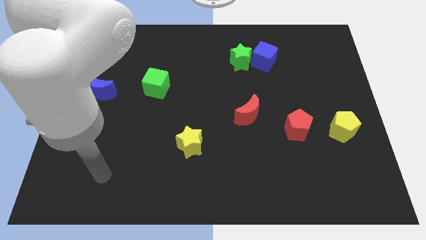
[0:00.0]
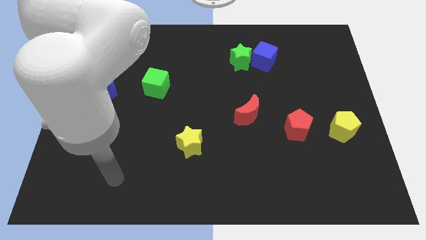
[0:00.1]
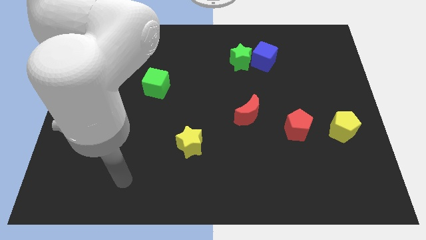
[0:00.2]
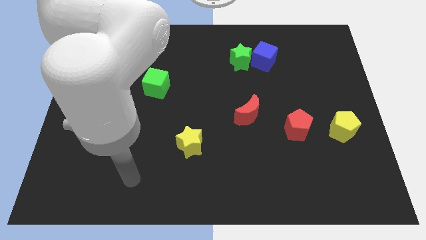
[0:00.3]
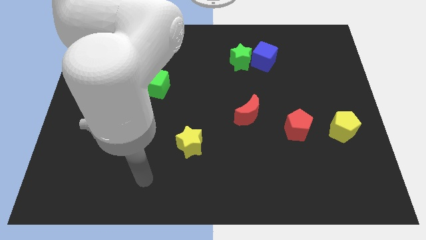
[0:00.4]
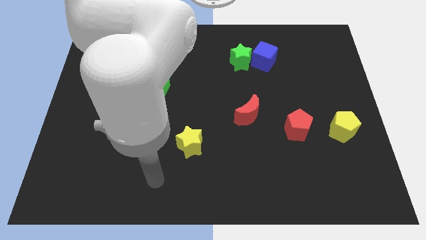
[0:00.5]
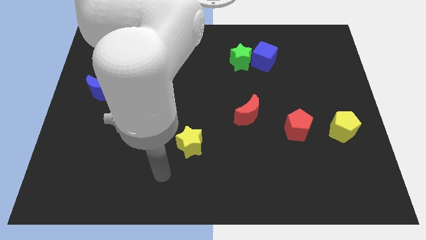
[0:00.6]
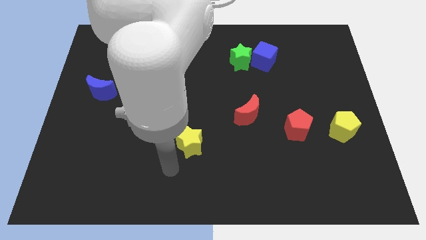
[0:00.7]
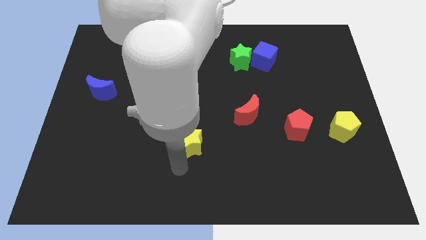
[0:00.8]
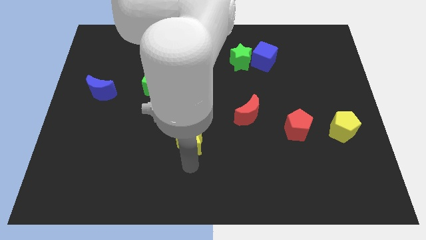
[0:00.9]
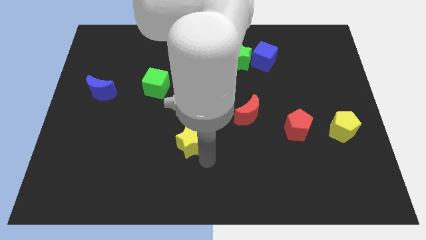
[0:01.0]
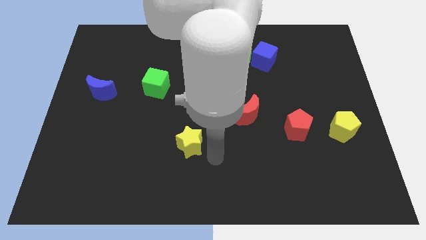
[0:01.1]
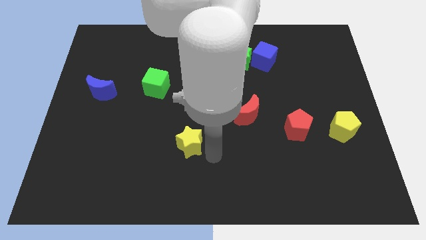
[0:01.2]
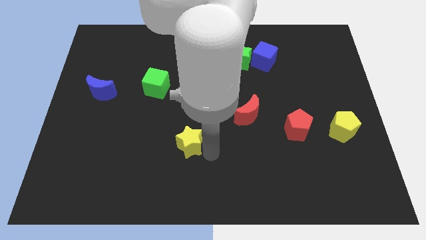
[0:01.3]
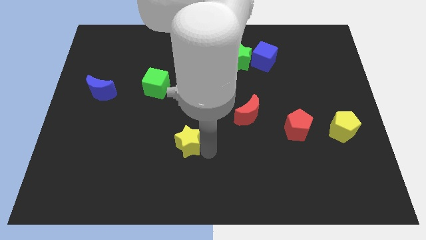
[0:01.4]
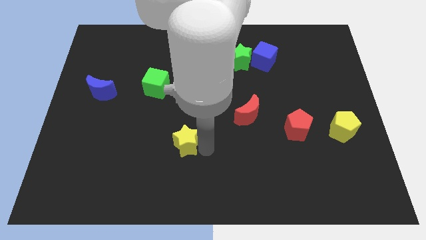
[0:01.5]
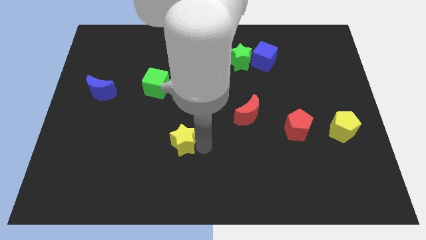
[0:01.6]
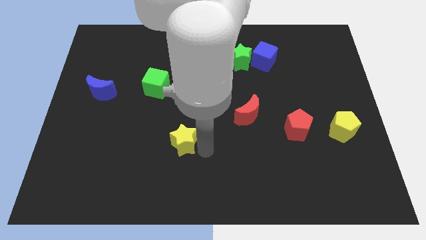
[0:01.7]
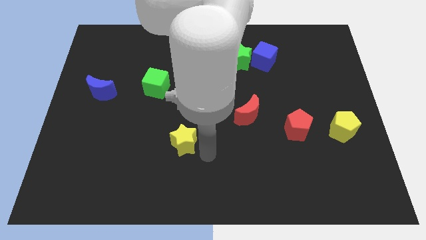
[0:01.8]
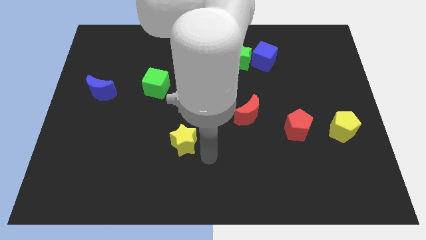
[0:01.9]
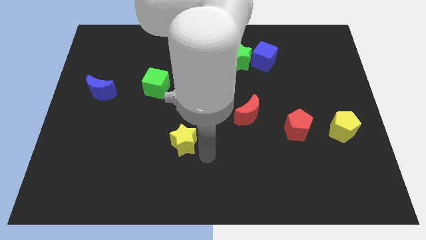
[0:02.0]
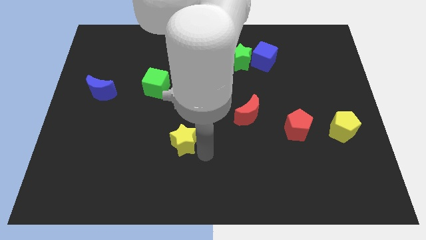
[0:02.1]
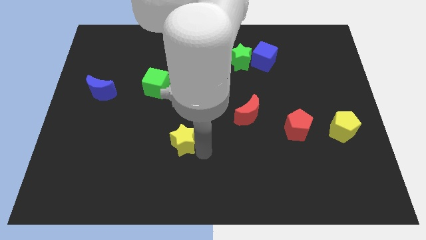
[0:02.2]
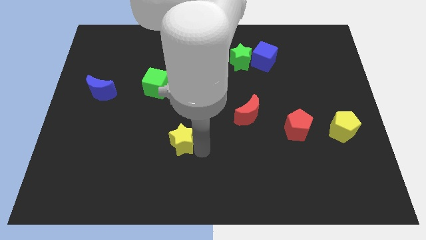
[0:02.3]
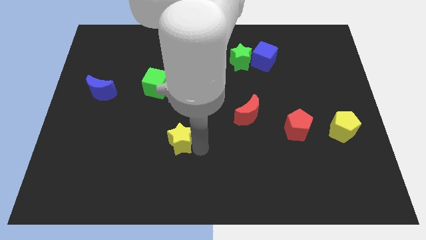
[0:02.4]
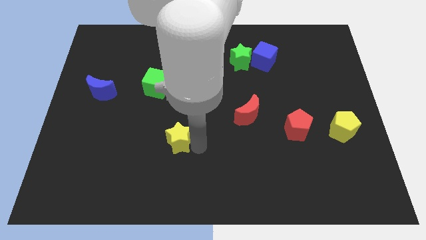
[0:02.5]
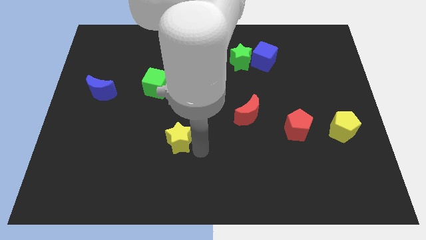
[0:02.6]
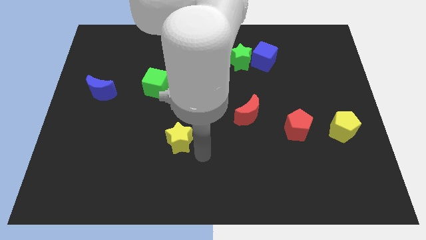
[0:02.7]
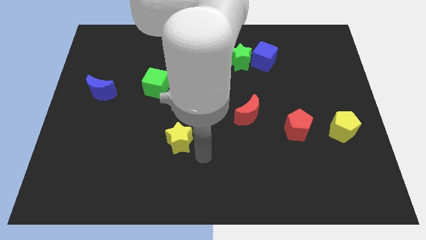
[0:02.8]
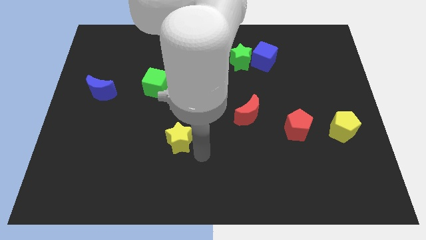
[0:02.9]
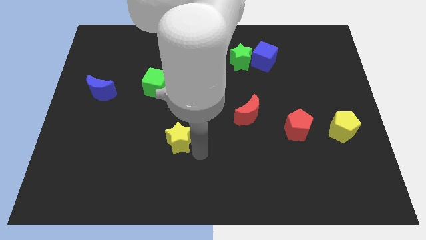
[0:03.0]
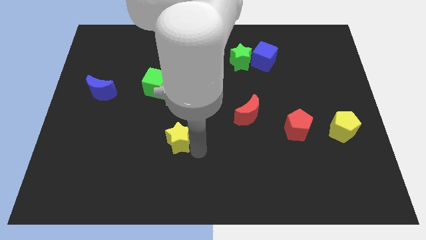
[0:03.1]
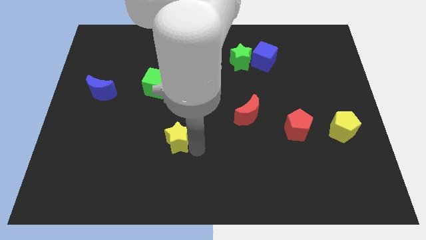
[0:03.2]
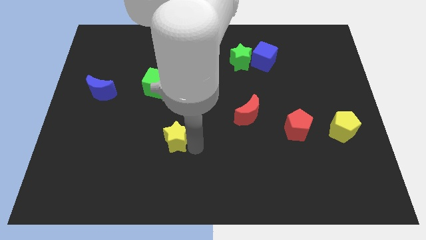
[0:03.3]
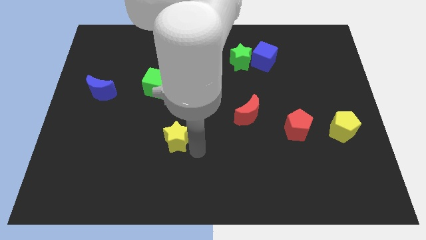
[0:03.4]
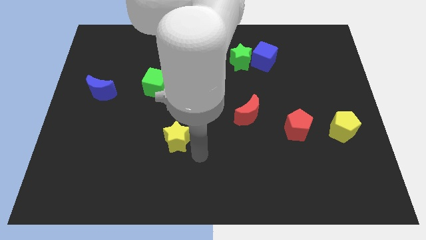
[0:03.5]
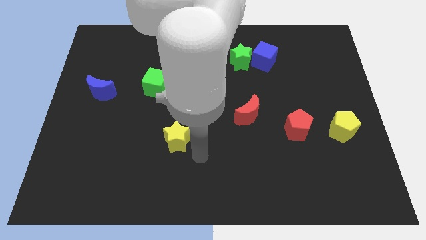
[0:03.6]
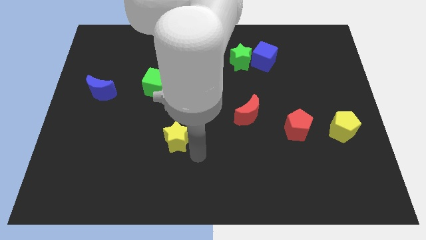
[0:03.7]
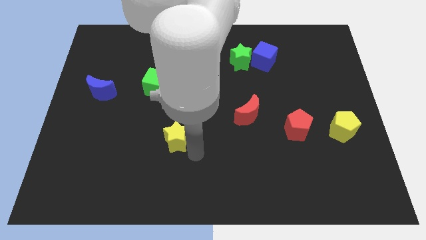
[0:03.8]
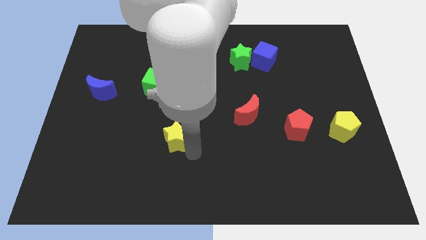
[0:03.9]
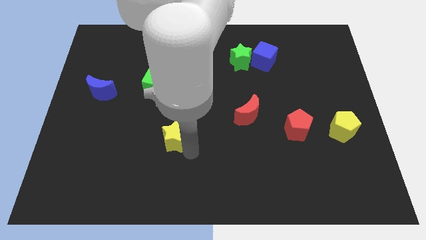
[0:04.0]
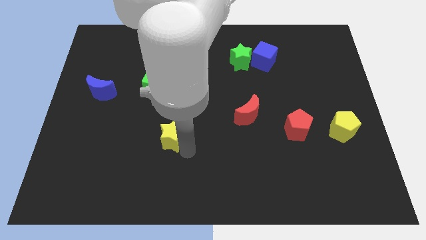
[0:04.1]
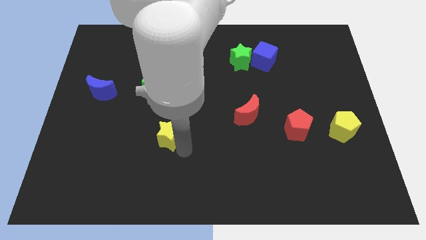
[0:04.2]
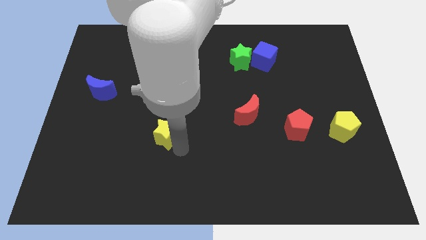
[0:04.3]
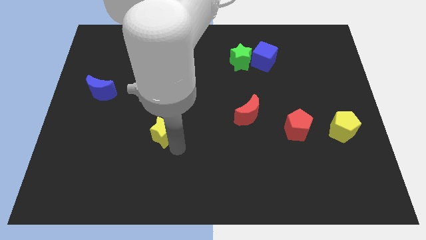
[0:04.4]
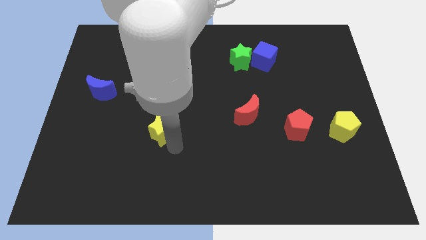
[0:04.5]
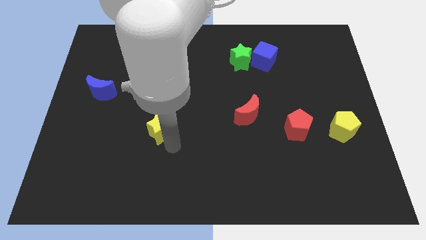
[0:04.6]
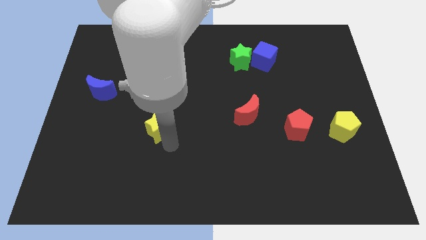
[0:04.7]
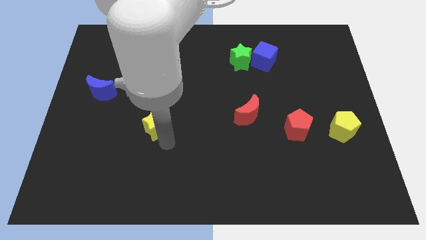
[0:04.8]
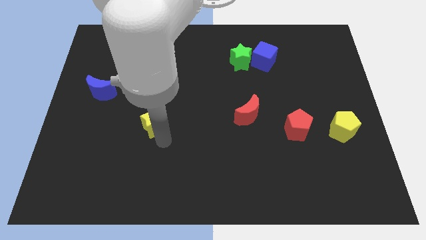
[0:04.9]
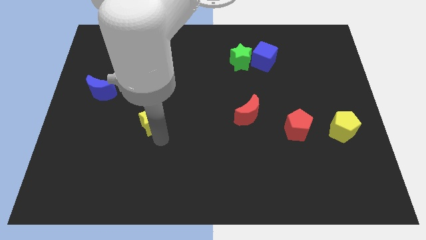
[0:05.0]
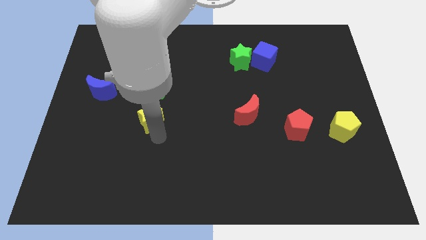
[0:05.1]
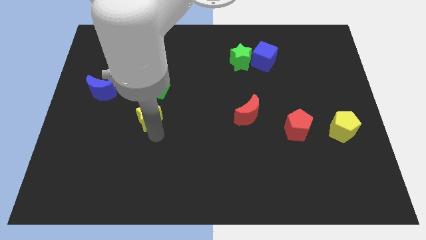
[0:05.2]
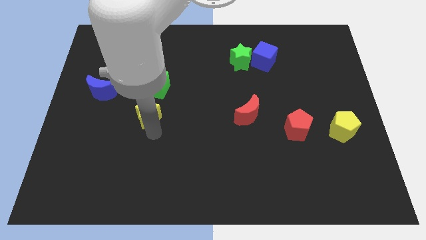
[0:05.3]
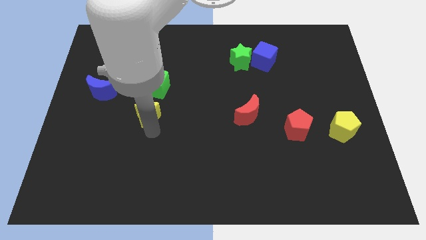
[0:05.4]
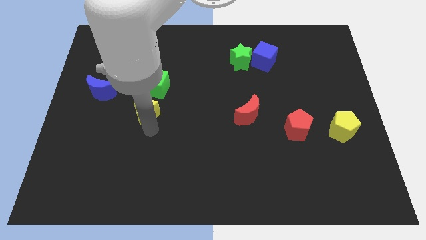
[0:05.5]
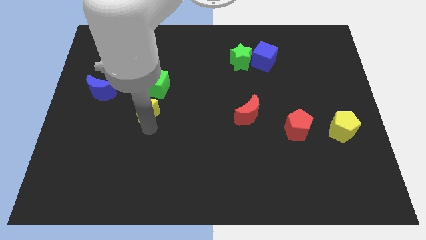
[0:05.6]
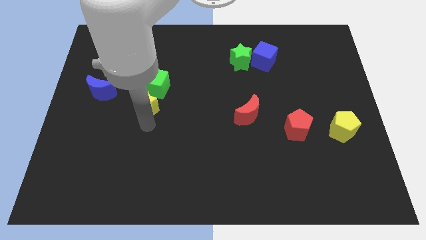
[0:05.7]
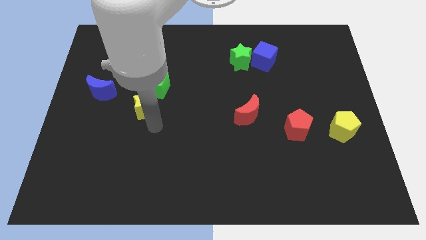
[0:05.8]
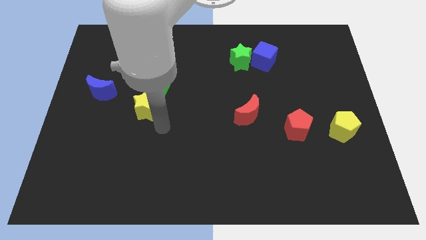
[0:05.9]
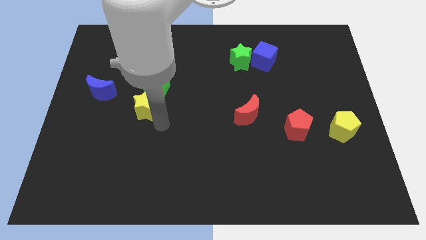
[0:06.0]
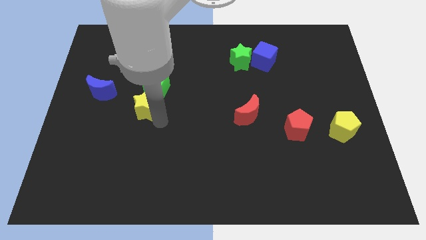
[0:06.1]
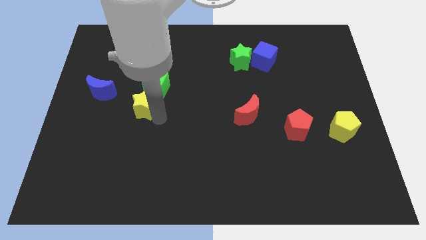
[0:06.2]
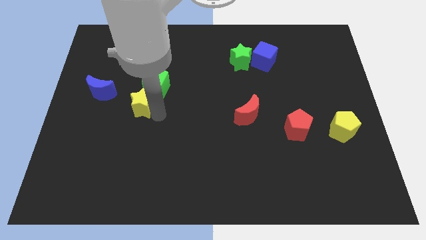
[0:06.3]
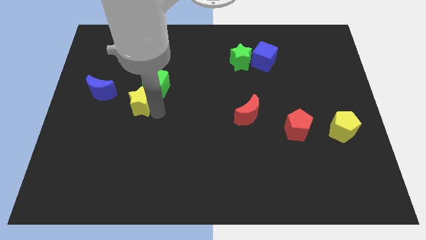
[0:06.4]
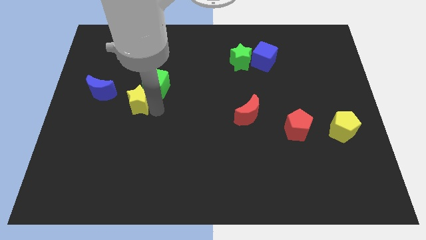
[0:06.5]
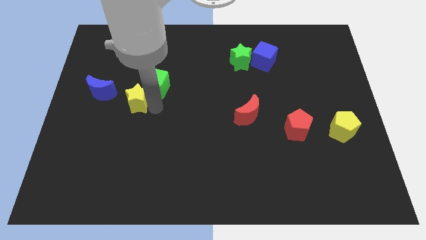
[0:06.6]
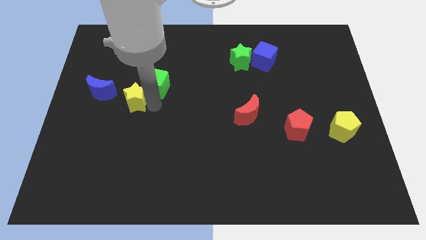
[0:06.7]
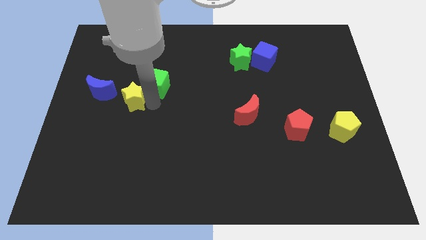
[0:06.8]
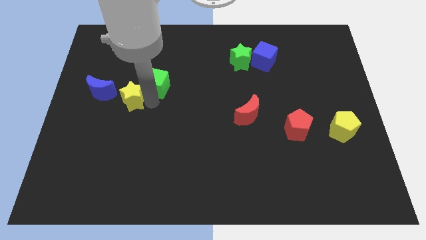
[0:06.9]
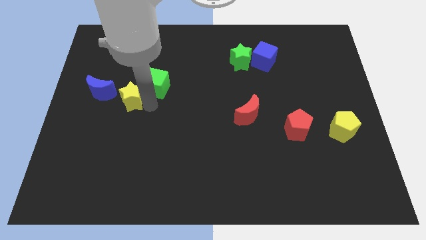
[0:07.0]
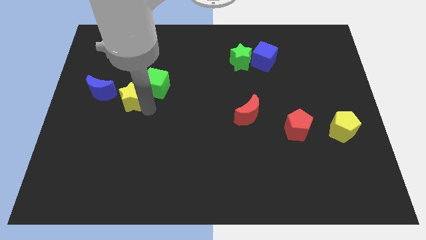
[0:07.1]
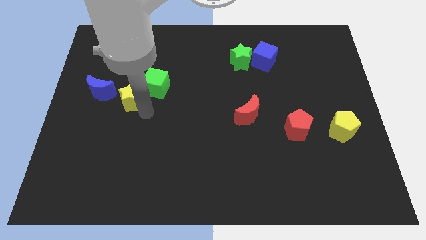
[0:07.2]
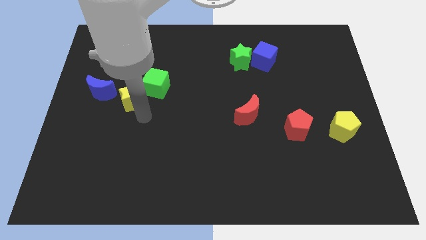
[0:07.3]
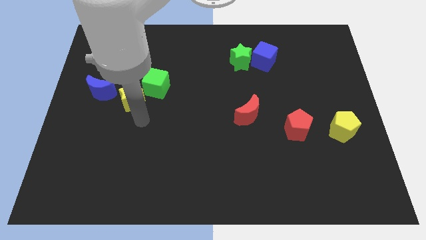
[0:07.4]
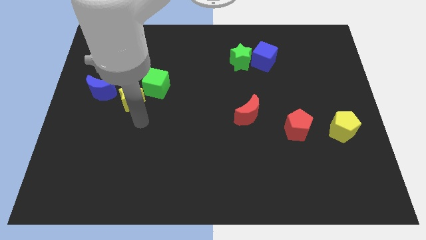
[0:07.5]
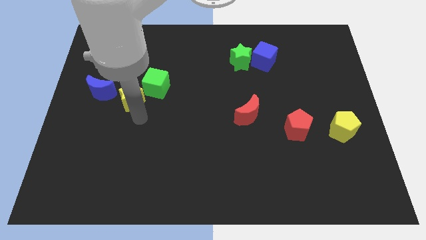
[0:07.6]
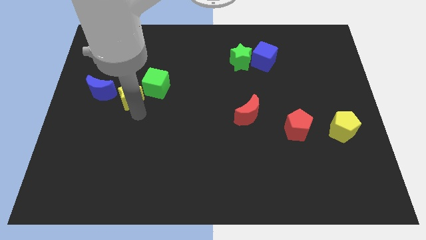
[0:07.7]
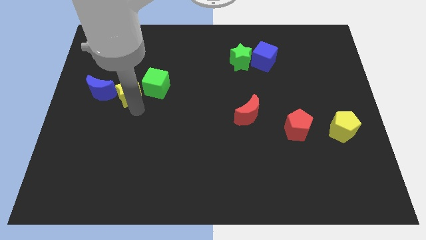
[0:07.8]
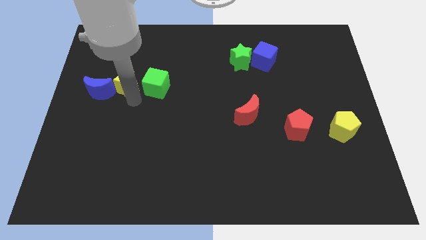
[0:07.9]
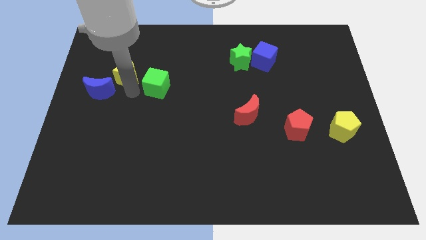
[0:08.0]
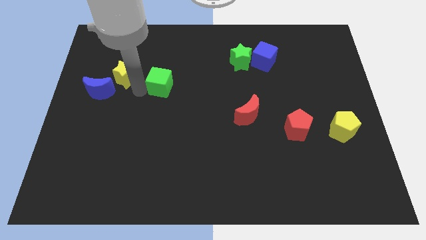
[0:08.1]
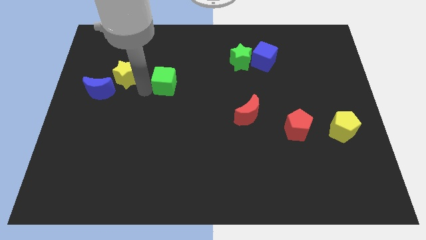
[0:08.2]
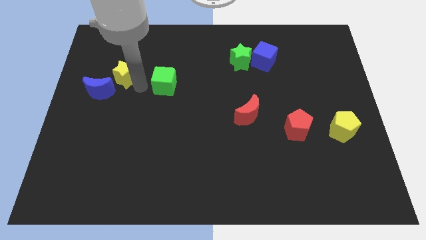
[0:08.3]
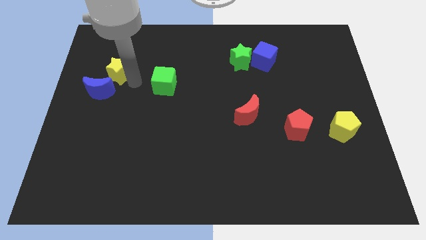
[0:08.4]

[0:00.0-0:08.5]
move the yellow star above the blue moon
